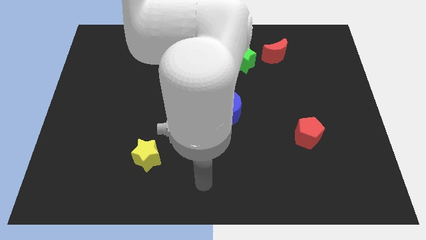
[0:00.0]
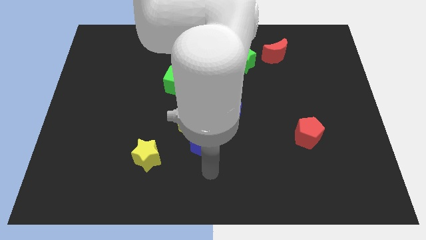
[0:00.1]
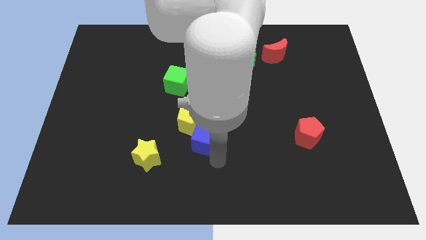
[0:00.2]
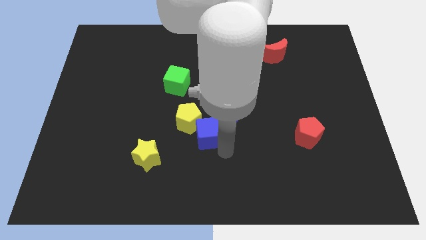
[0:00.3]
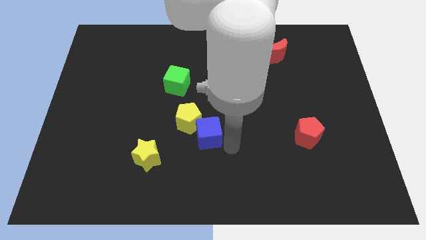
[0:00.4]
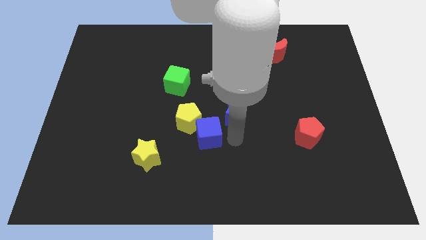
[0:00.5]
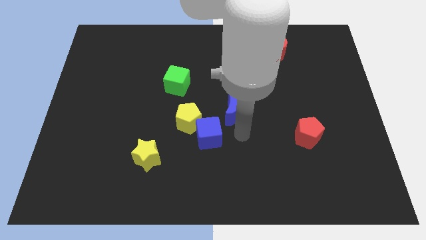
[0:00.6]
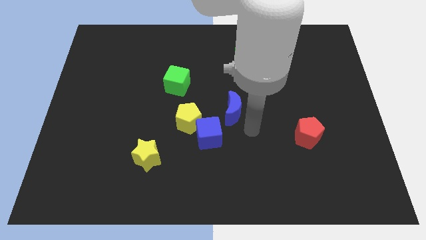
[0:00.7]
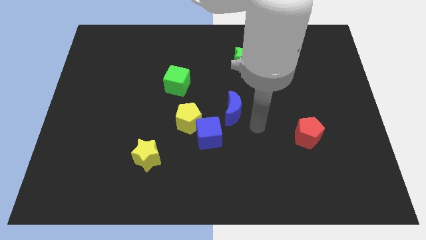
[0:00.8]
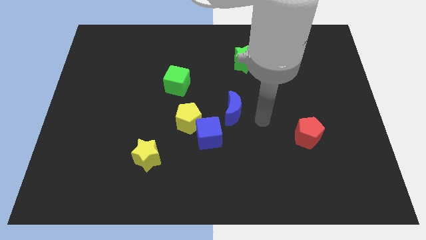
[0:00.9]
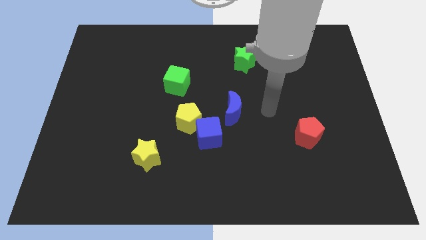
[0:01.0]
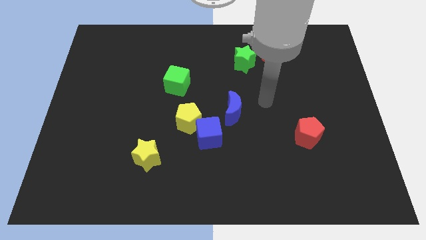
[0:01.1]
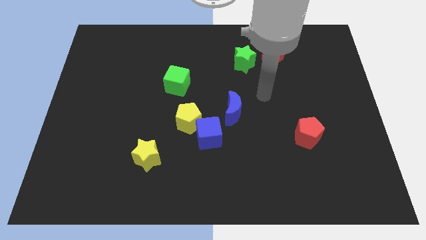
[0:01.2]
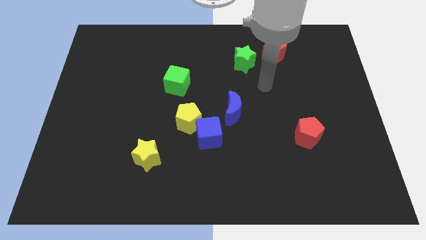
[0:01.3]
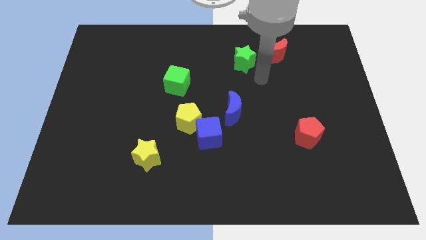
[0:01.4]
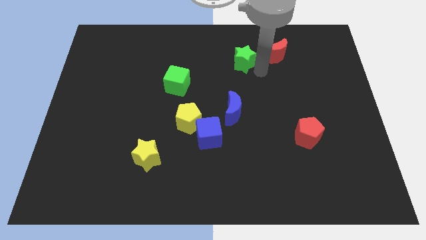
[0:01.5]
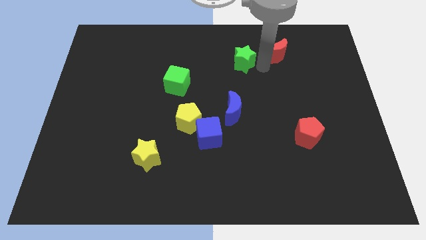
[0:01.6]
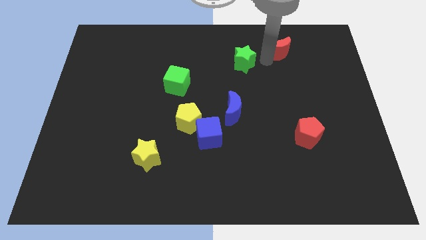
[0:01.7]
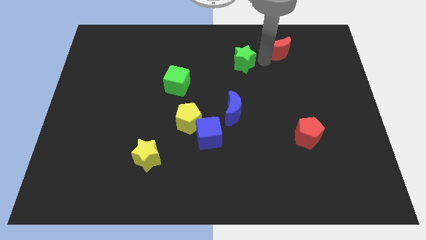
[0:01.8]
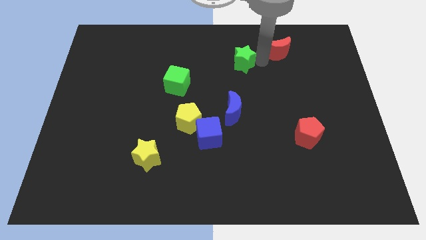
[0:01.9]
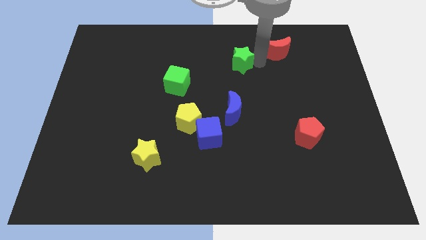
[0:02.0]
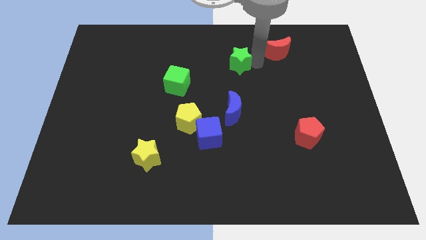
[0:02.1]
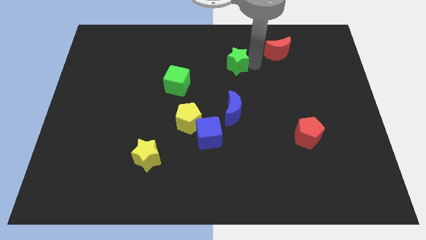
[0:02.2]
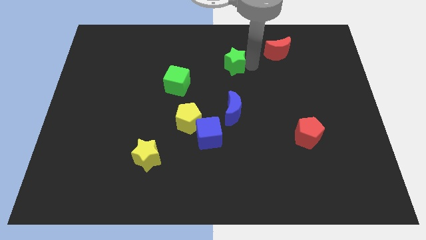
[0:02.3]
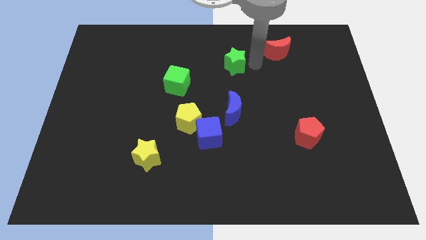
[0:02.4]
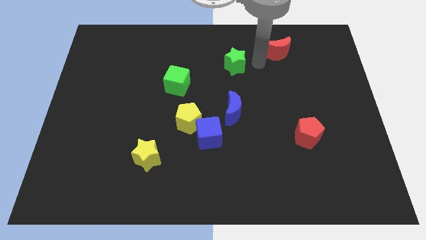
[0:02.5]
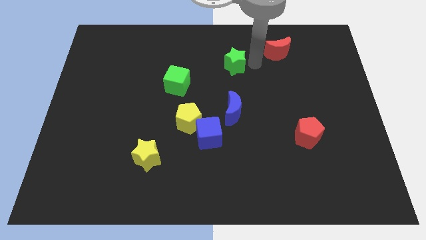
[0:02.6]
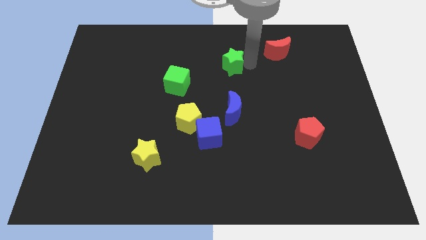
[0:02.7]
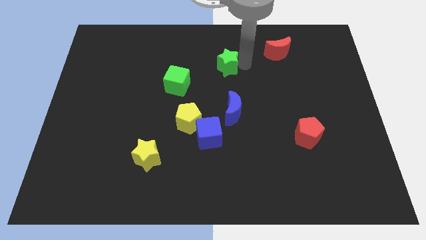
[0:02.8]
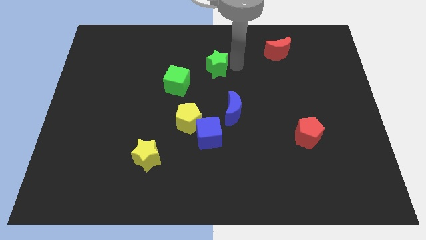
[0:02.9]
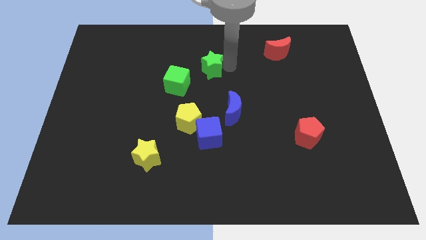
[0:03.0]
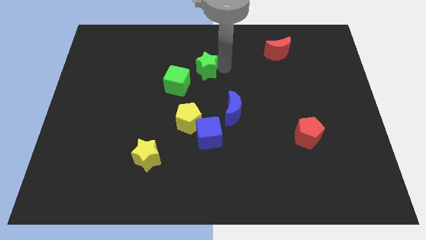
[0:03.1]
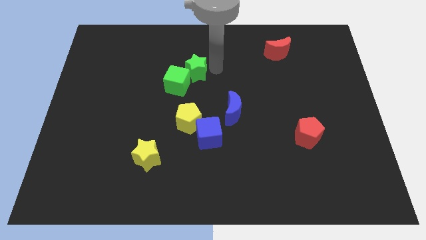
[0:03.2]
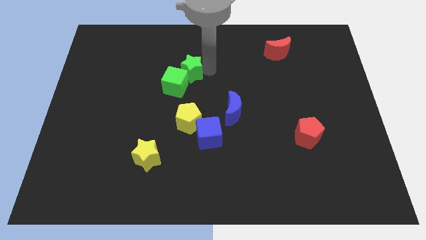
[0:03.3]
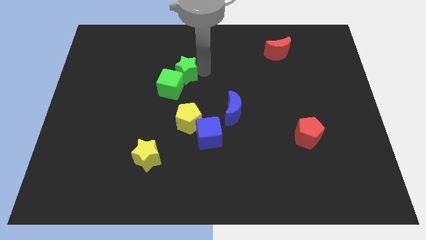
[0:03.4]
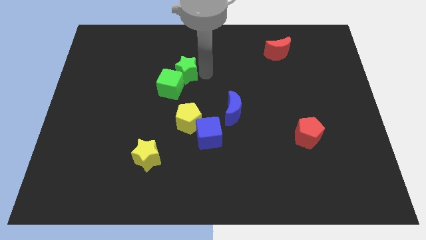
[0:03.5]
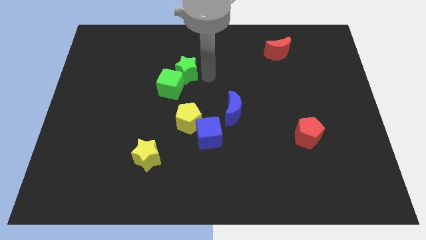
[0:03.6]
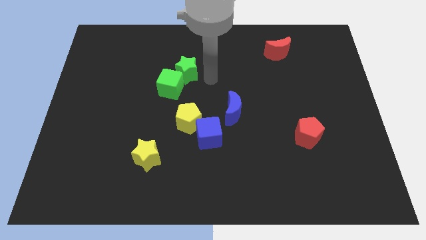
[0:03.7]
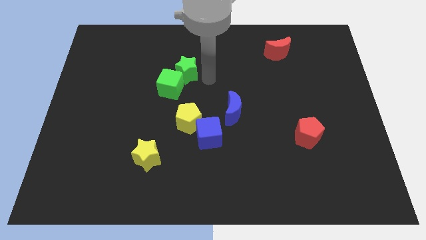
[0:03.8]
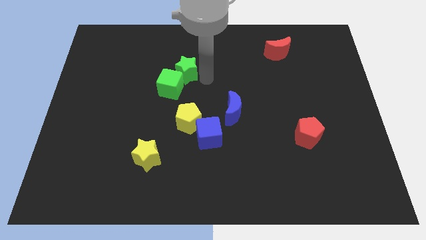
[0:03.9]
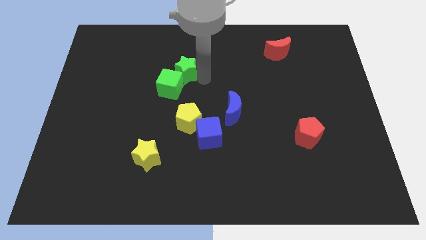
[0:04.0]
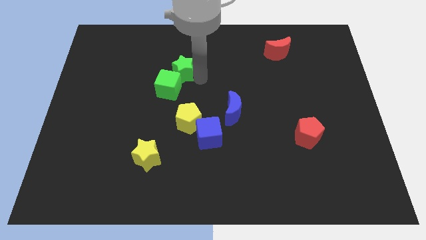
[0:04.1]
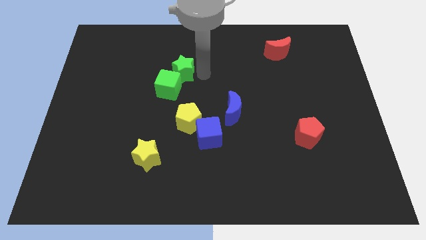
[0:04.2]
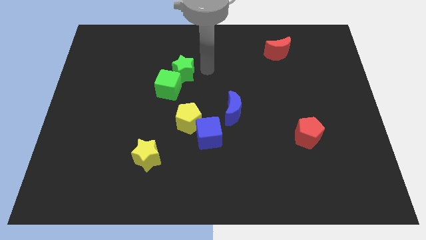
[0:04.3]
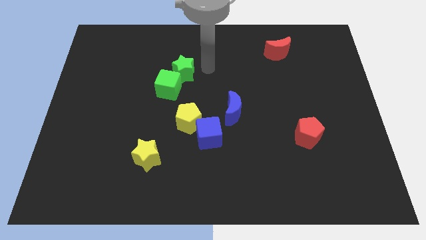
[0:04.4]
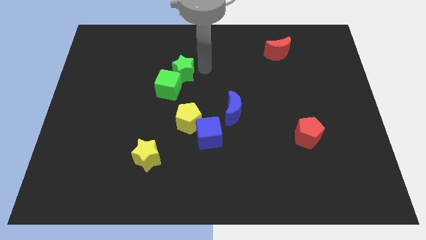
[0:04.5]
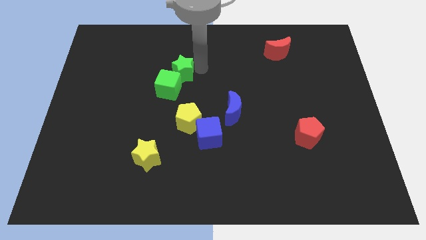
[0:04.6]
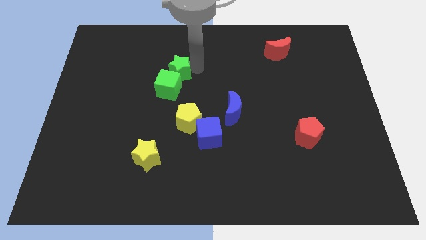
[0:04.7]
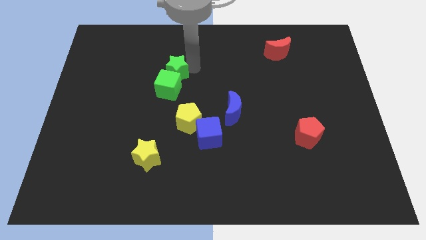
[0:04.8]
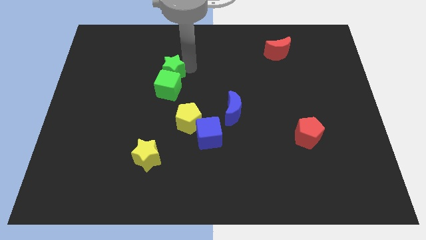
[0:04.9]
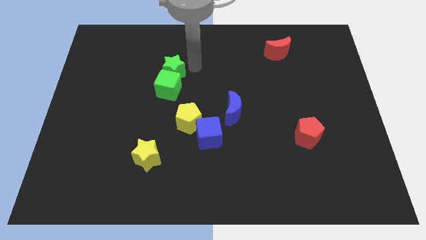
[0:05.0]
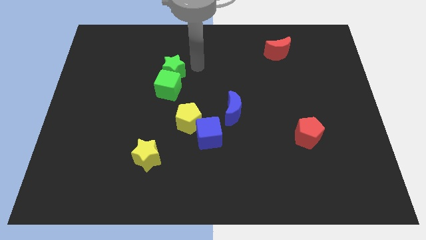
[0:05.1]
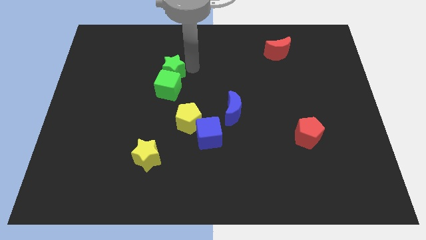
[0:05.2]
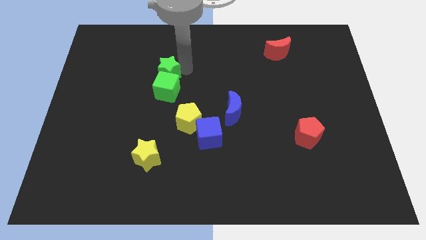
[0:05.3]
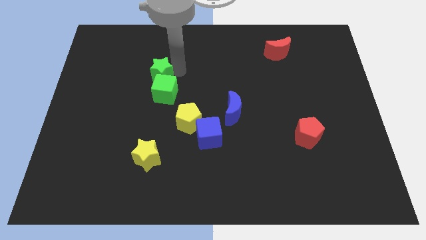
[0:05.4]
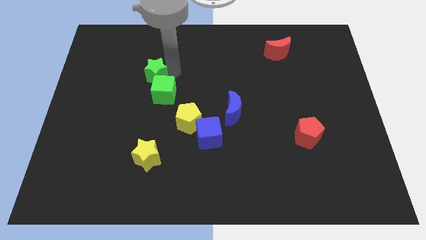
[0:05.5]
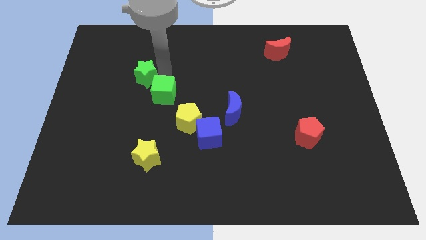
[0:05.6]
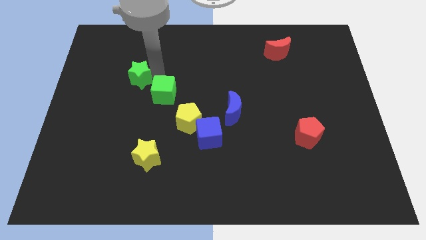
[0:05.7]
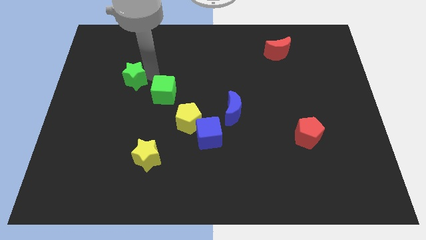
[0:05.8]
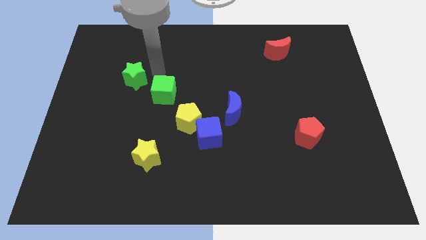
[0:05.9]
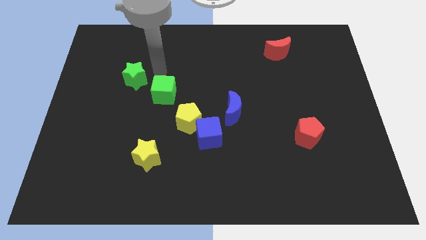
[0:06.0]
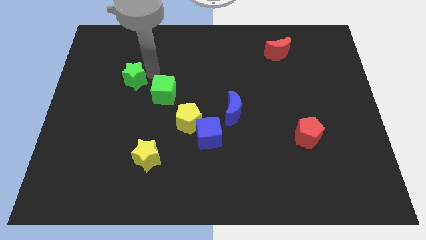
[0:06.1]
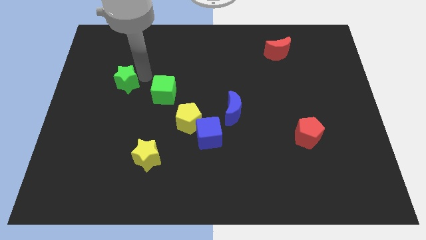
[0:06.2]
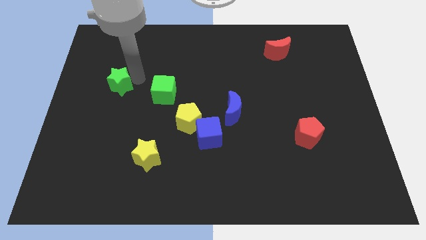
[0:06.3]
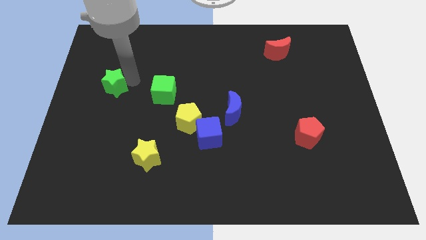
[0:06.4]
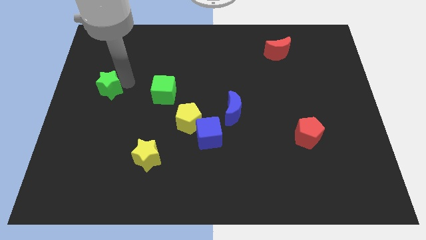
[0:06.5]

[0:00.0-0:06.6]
move the green star to the left side of the board

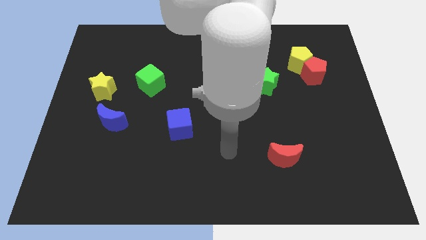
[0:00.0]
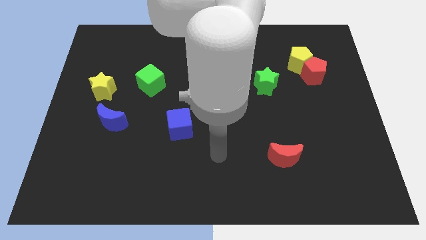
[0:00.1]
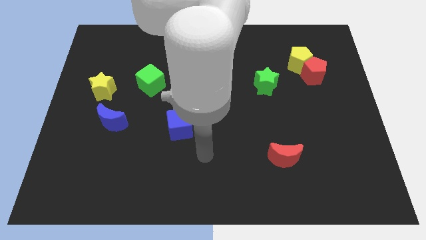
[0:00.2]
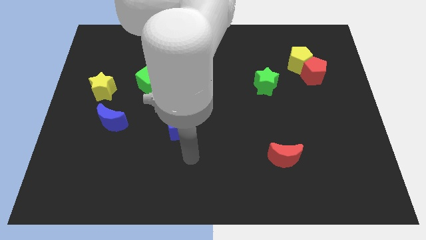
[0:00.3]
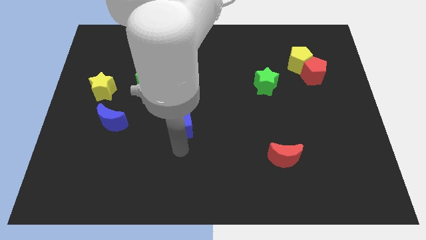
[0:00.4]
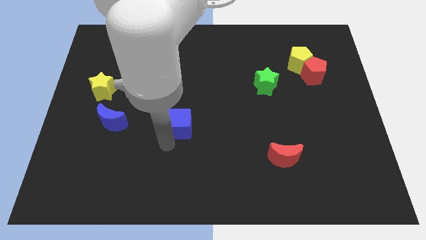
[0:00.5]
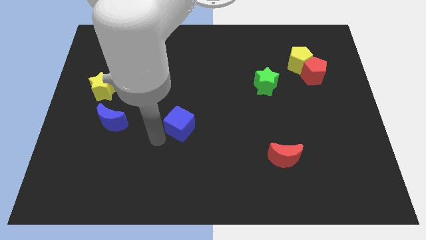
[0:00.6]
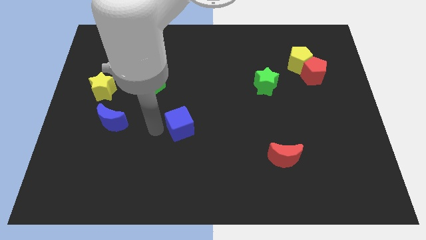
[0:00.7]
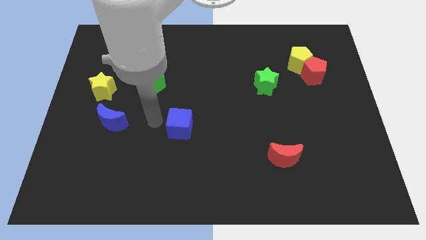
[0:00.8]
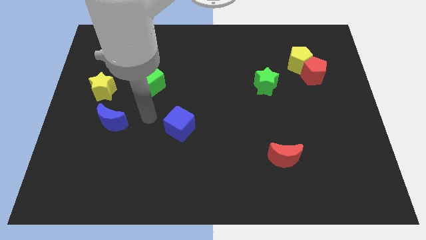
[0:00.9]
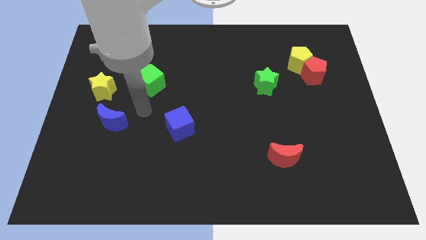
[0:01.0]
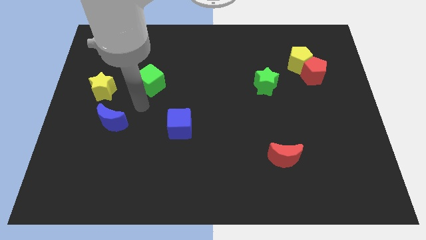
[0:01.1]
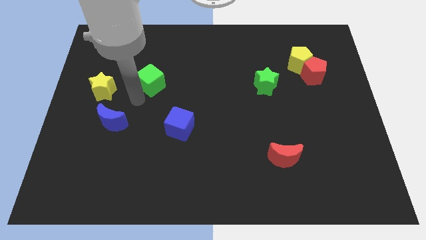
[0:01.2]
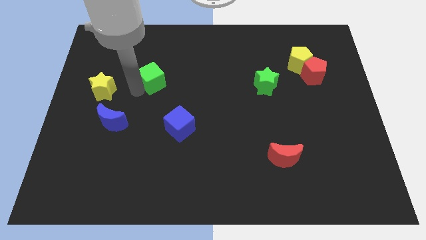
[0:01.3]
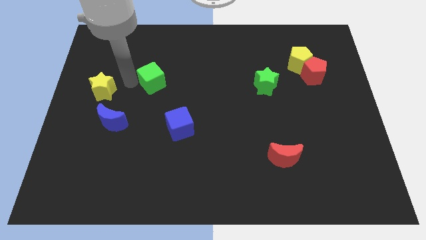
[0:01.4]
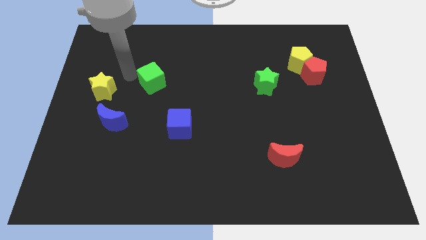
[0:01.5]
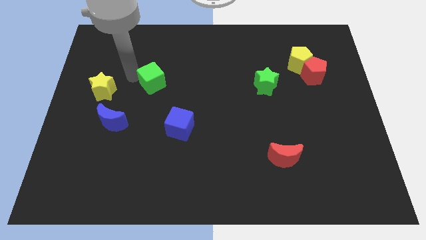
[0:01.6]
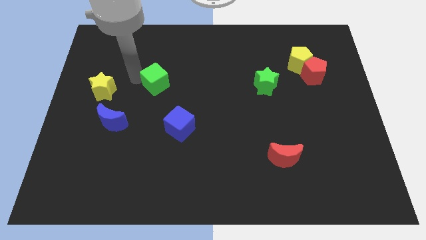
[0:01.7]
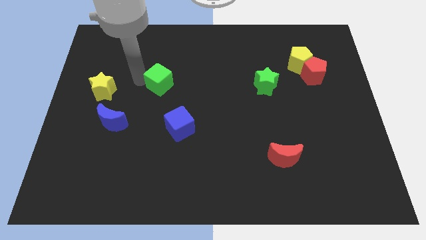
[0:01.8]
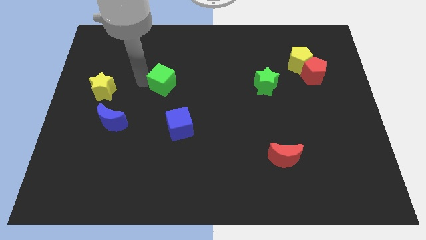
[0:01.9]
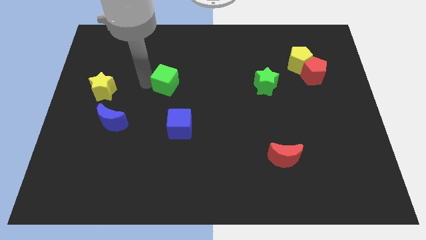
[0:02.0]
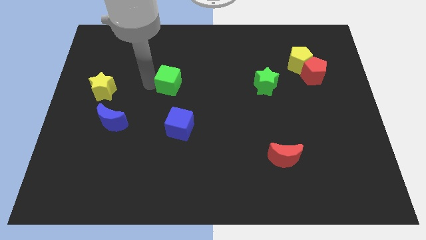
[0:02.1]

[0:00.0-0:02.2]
slide the green cube to the middle of the board
